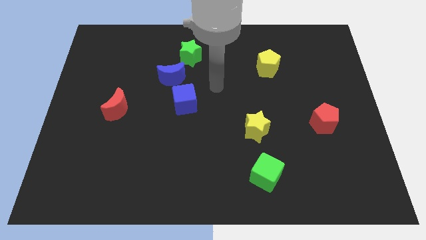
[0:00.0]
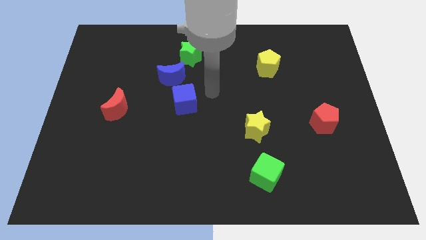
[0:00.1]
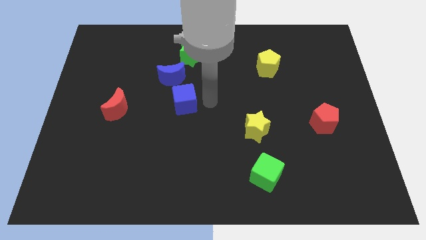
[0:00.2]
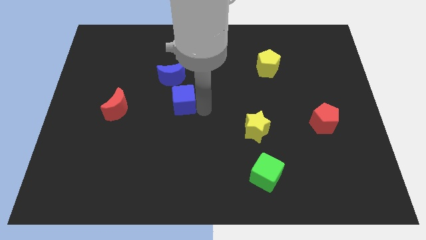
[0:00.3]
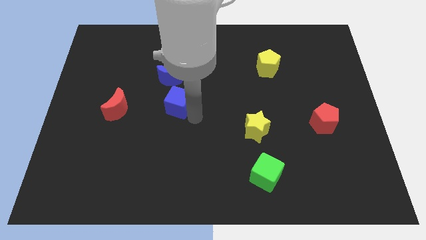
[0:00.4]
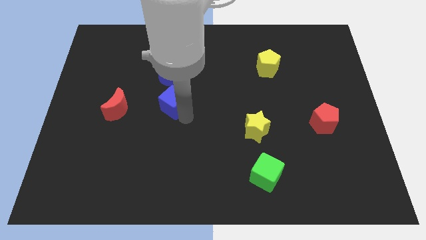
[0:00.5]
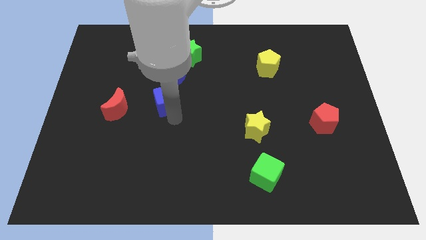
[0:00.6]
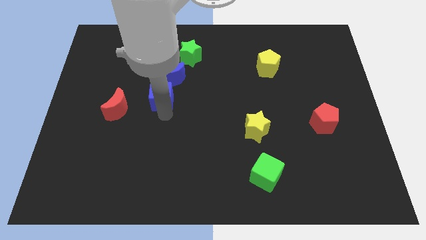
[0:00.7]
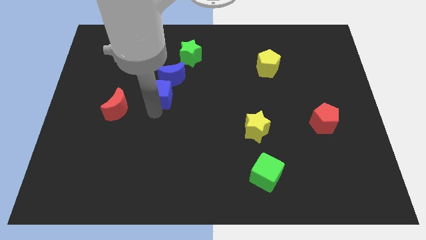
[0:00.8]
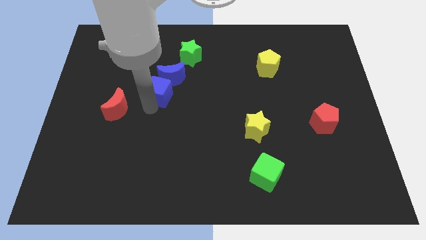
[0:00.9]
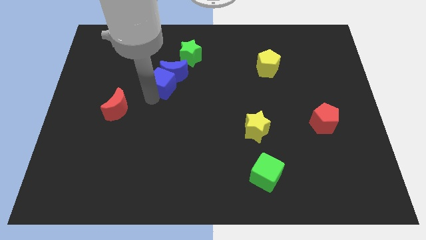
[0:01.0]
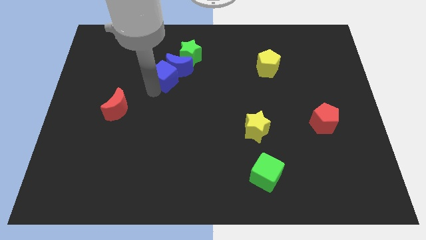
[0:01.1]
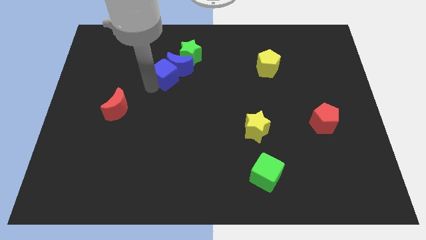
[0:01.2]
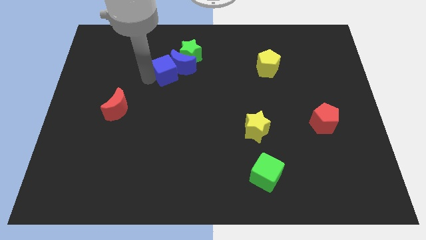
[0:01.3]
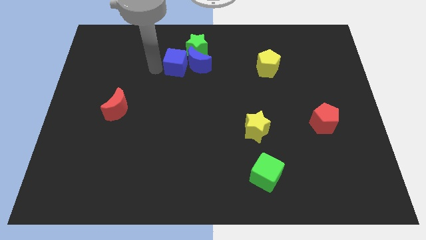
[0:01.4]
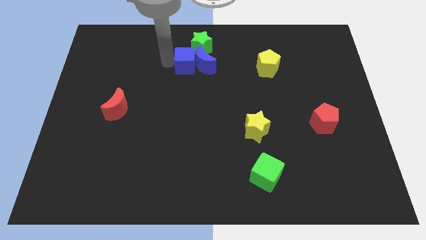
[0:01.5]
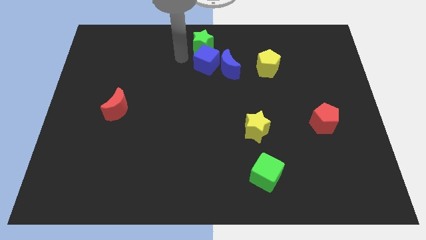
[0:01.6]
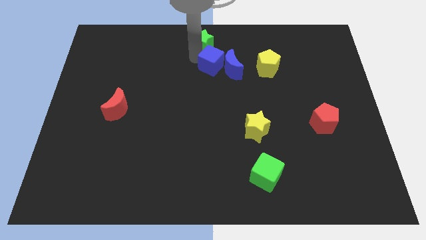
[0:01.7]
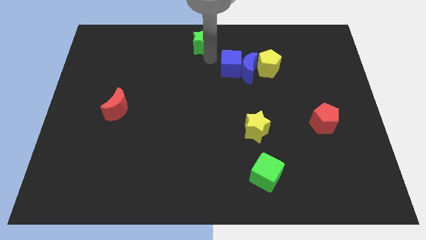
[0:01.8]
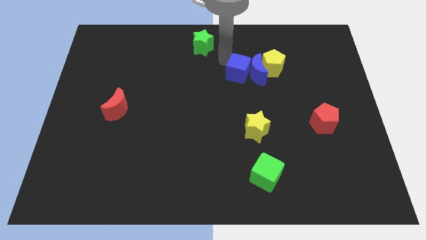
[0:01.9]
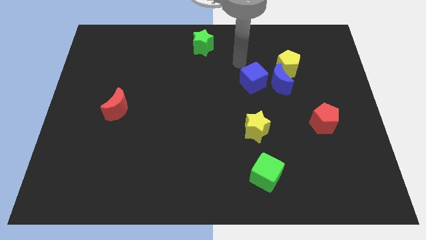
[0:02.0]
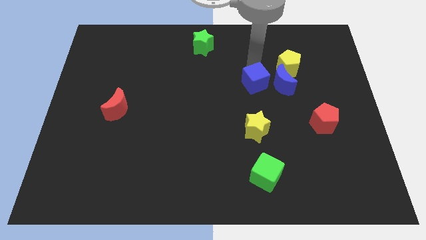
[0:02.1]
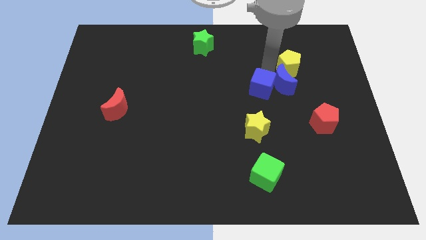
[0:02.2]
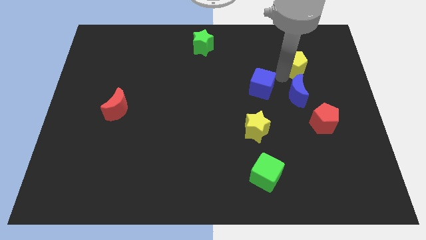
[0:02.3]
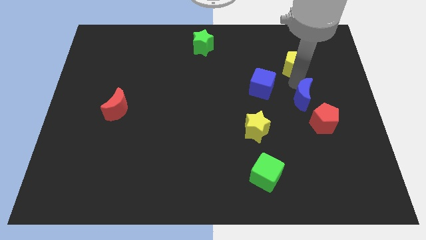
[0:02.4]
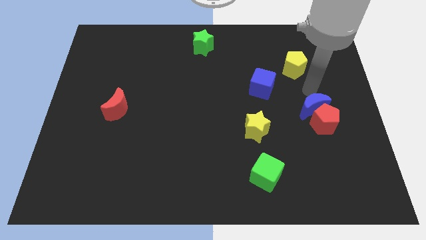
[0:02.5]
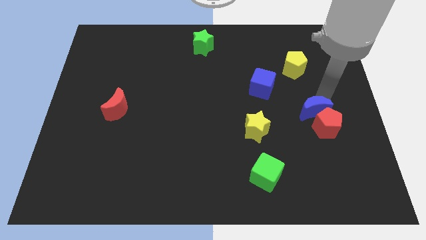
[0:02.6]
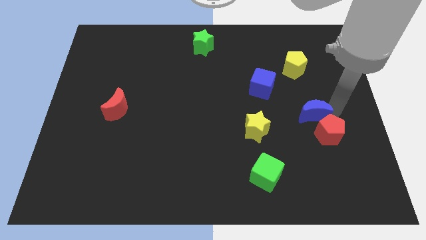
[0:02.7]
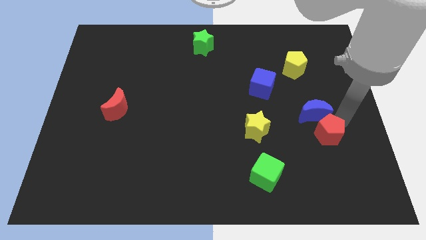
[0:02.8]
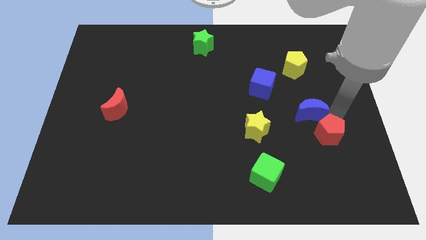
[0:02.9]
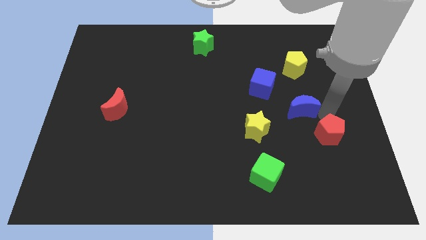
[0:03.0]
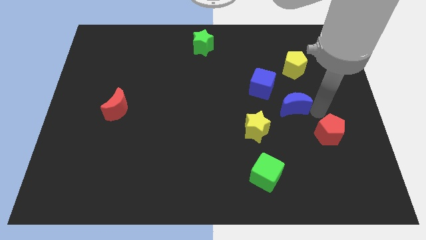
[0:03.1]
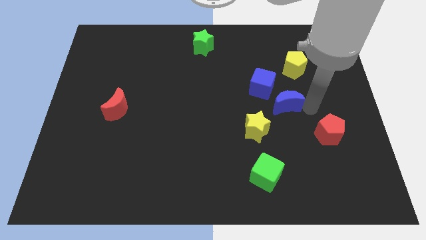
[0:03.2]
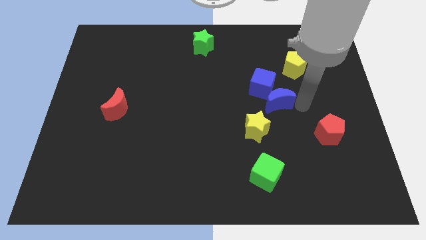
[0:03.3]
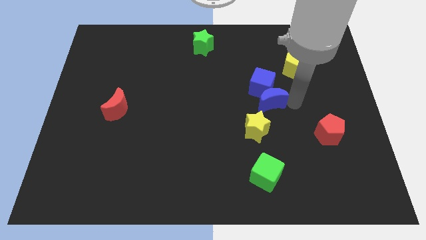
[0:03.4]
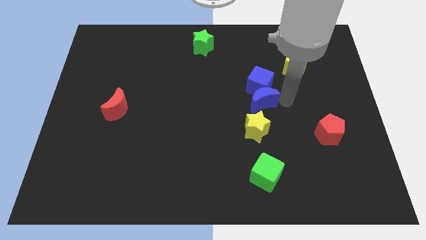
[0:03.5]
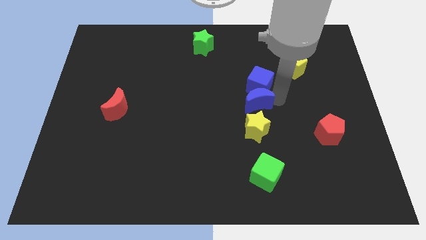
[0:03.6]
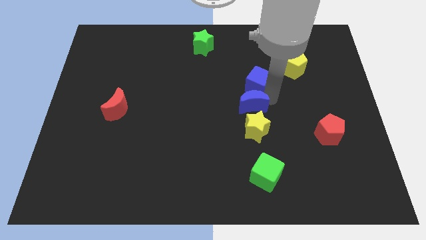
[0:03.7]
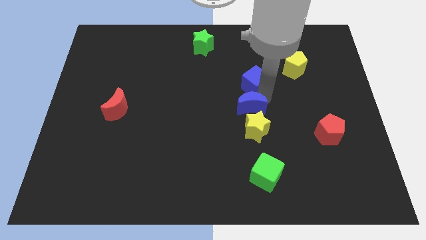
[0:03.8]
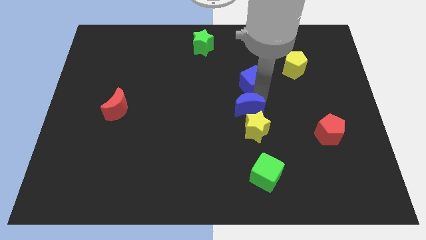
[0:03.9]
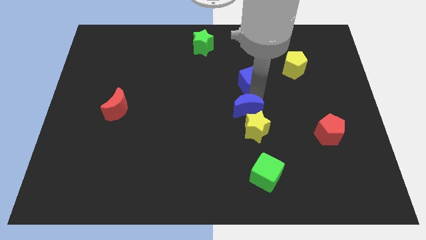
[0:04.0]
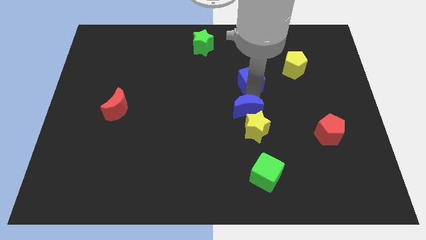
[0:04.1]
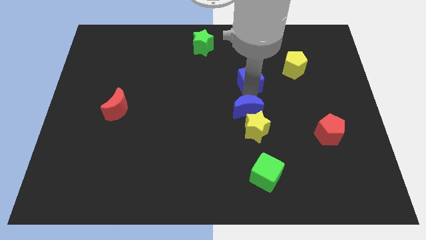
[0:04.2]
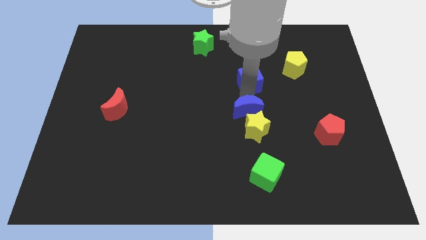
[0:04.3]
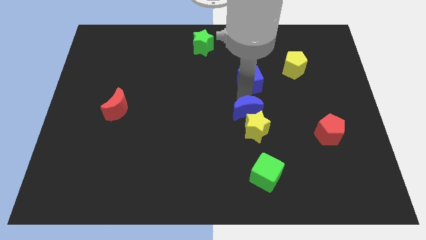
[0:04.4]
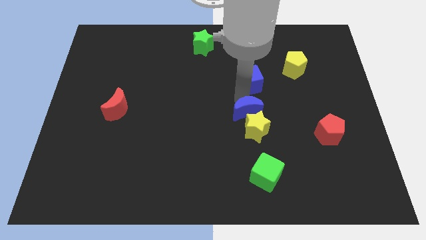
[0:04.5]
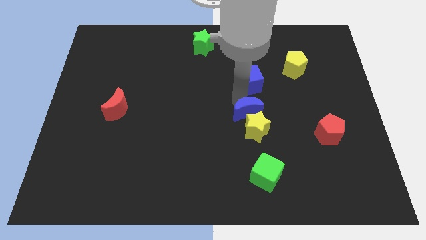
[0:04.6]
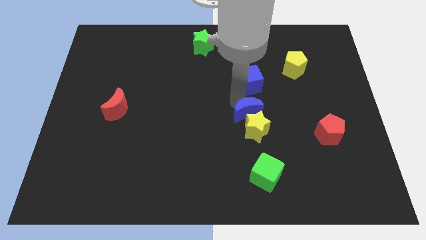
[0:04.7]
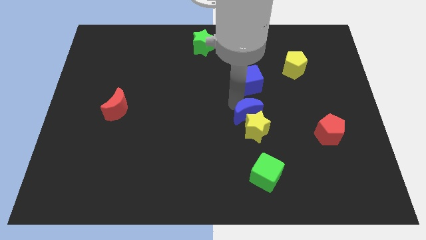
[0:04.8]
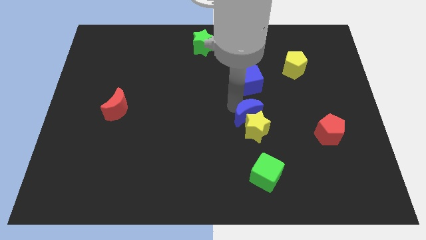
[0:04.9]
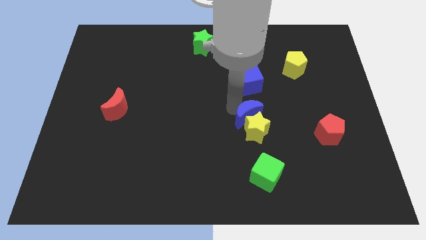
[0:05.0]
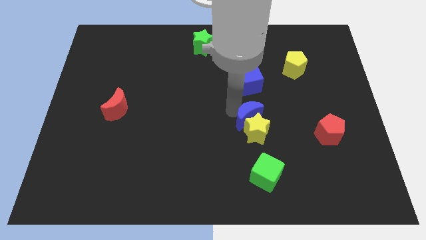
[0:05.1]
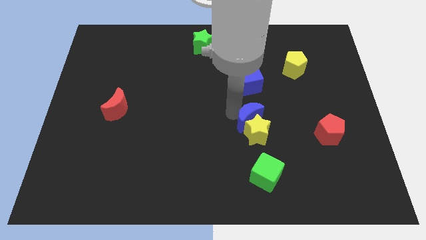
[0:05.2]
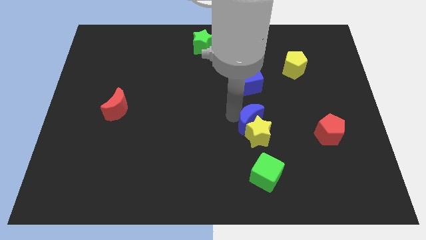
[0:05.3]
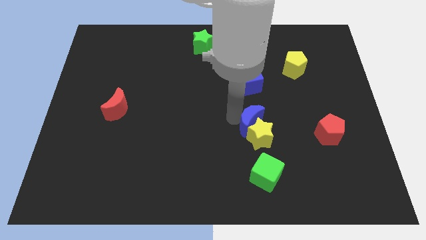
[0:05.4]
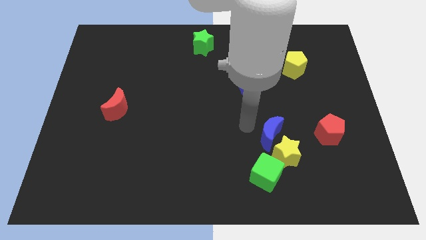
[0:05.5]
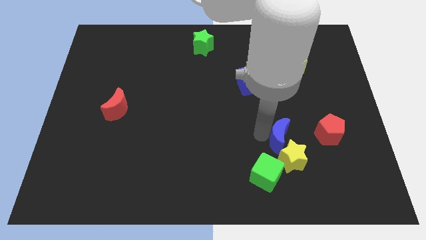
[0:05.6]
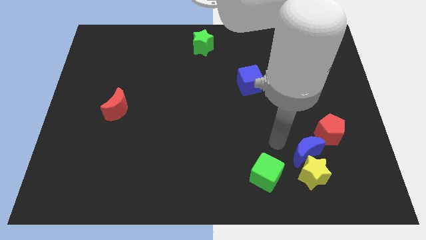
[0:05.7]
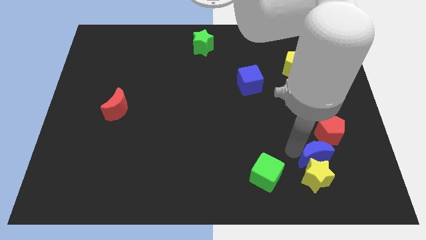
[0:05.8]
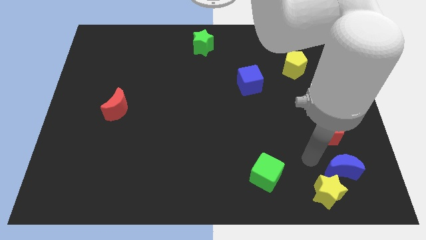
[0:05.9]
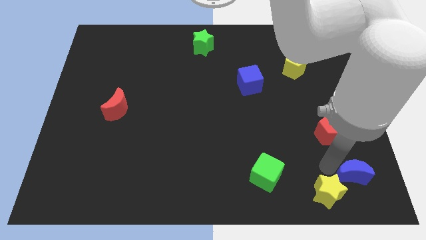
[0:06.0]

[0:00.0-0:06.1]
slide the blue moon to the bottom right

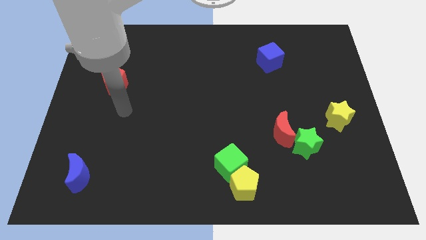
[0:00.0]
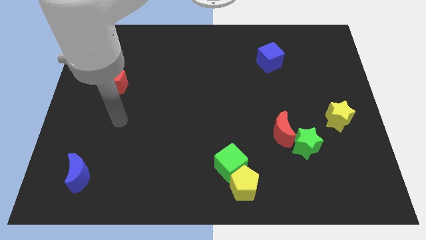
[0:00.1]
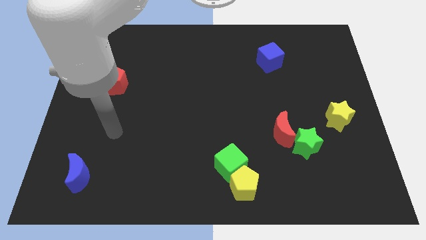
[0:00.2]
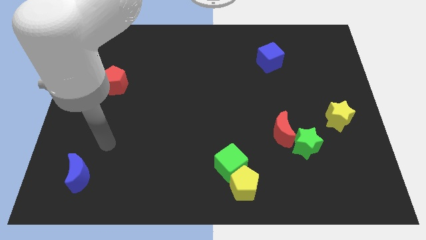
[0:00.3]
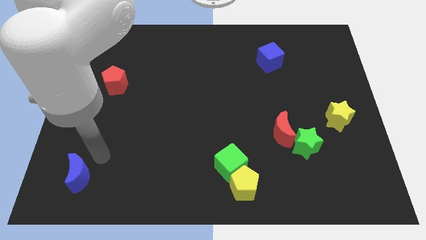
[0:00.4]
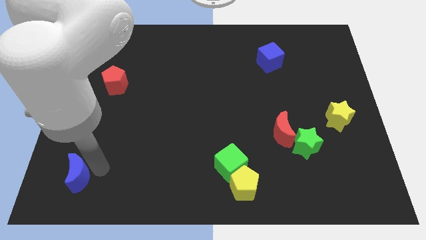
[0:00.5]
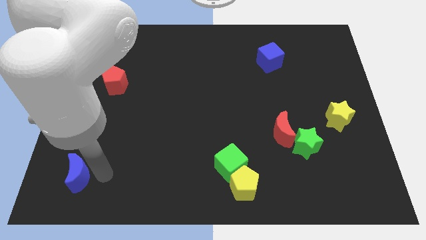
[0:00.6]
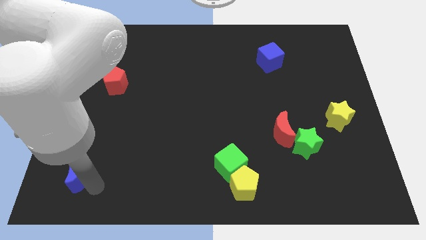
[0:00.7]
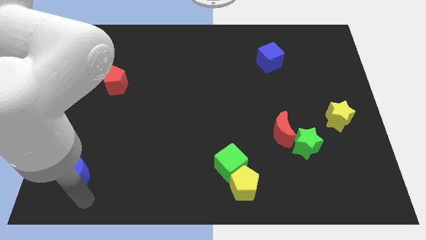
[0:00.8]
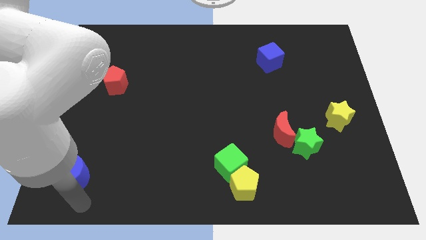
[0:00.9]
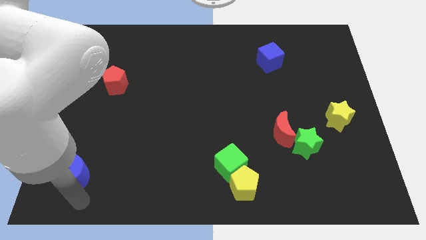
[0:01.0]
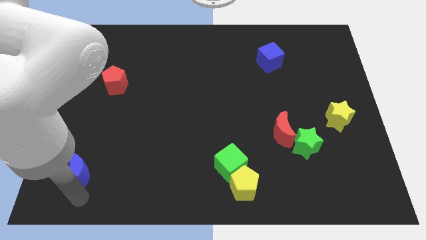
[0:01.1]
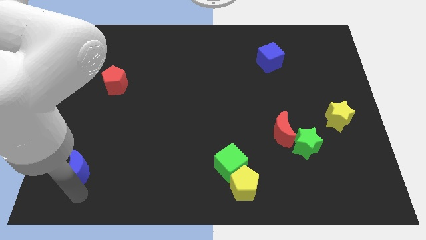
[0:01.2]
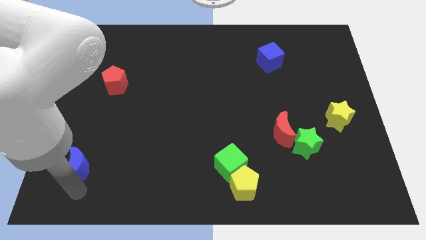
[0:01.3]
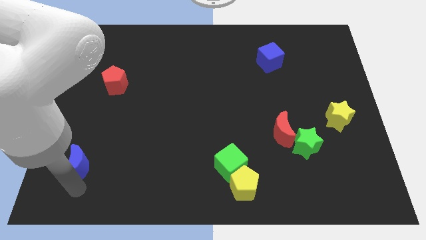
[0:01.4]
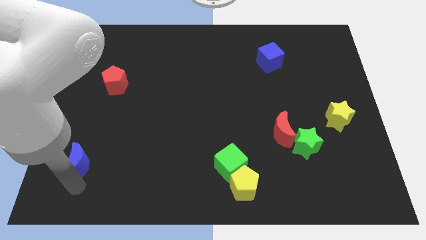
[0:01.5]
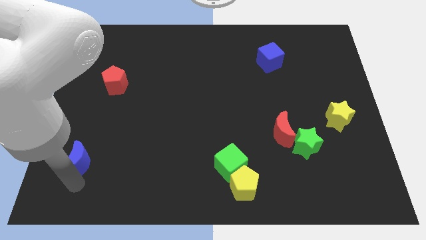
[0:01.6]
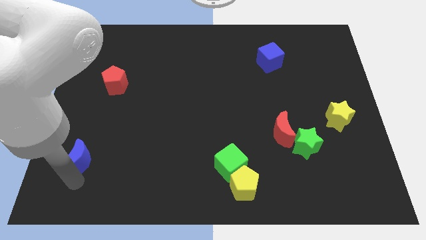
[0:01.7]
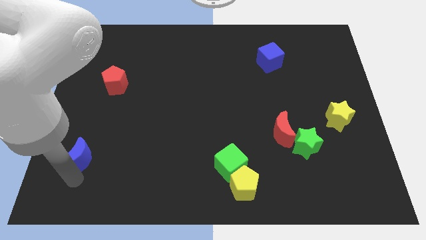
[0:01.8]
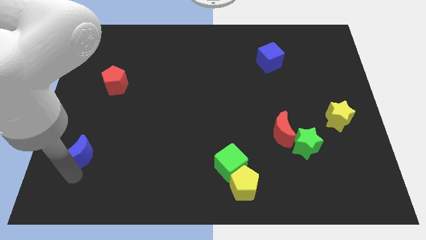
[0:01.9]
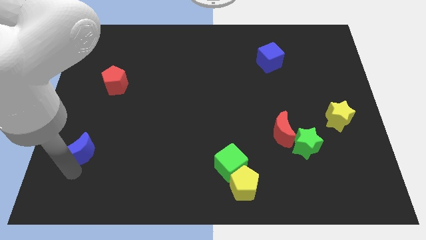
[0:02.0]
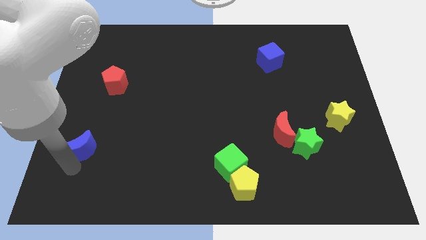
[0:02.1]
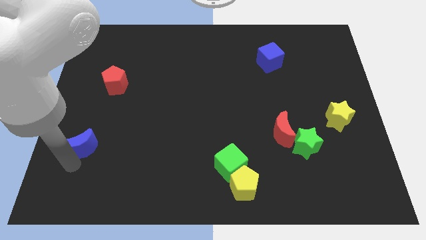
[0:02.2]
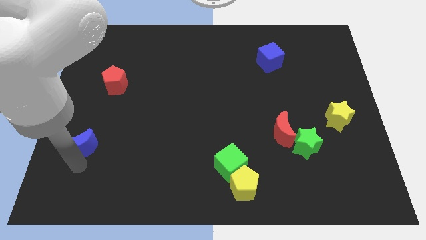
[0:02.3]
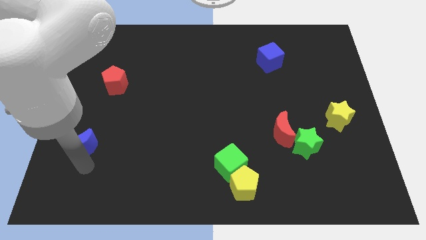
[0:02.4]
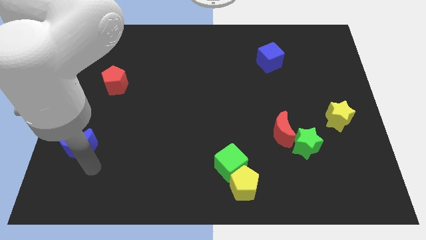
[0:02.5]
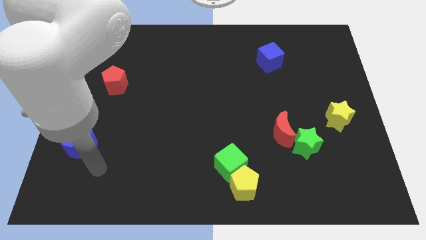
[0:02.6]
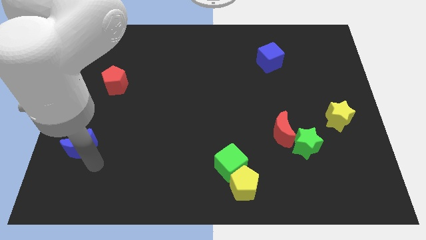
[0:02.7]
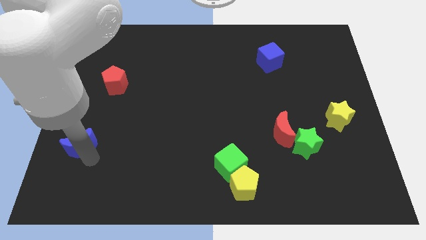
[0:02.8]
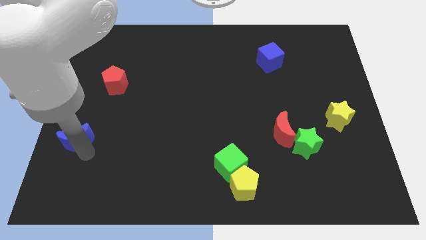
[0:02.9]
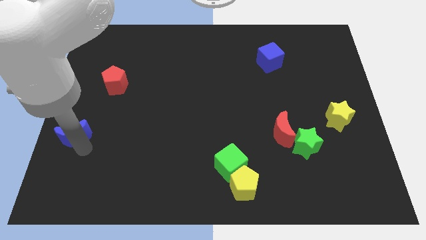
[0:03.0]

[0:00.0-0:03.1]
move the blue moon to the left side of the board
